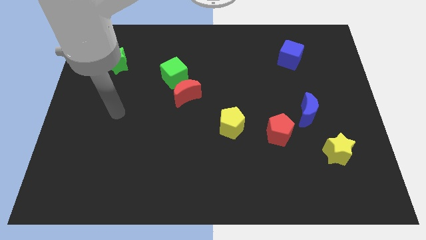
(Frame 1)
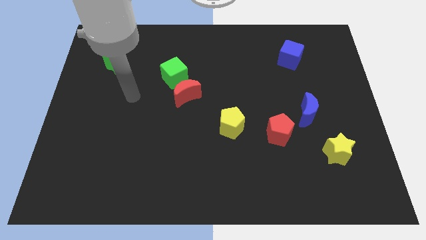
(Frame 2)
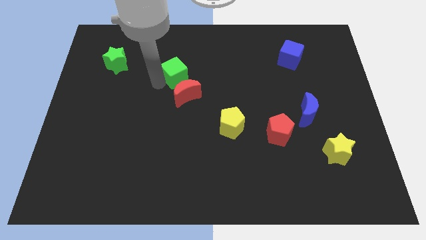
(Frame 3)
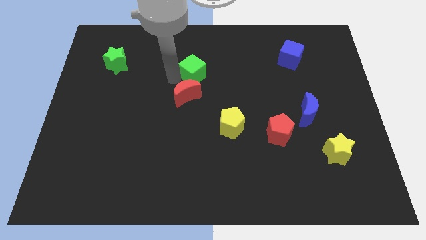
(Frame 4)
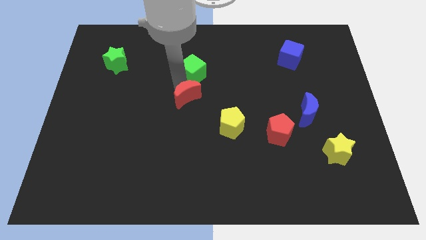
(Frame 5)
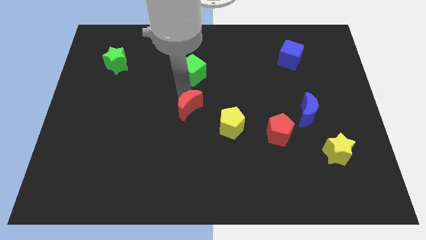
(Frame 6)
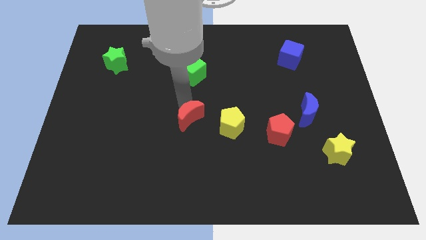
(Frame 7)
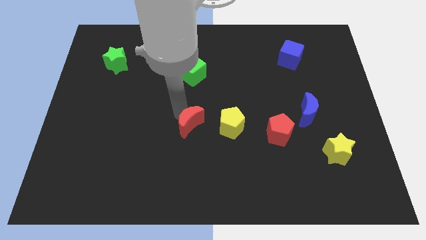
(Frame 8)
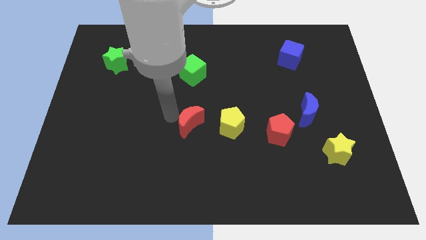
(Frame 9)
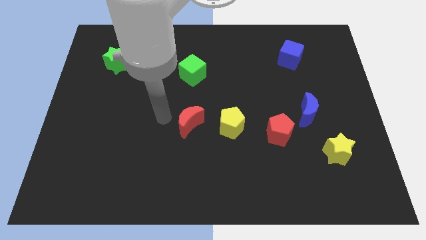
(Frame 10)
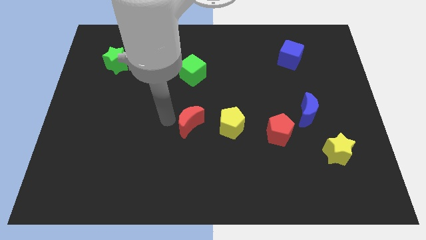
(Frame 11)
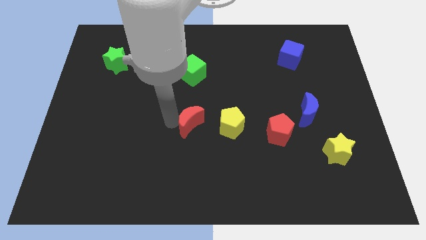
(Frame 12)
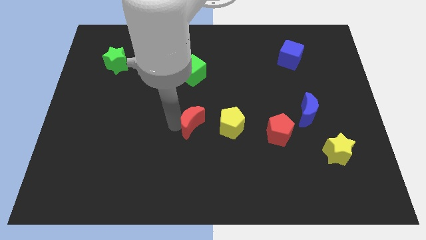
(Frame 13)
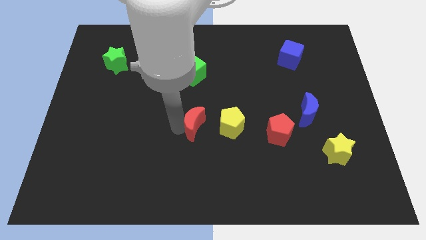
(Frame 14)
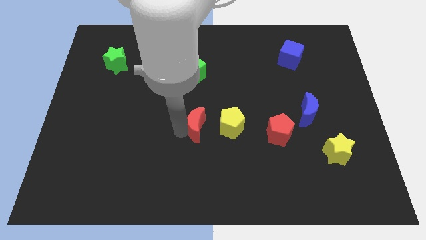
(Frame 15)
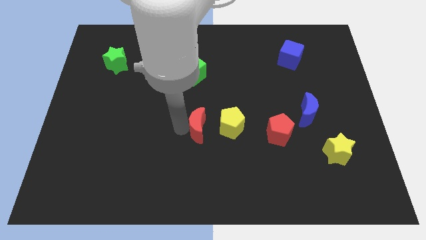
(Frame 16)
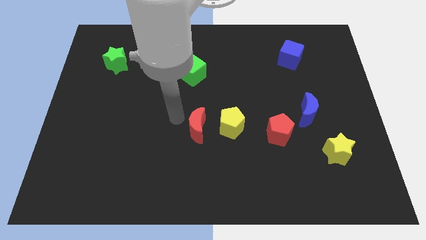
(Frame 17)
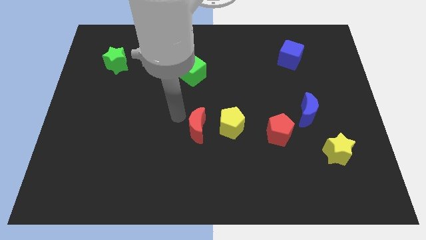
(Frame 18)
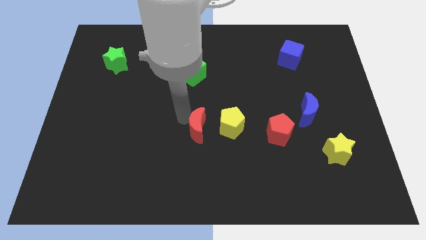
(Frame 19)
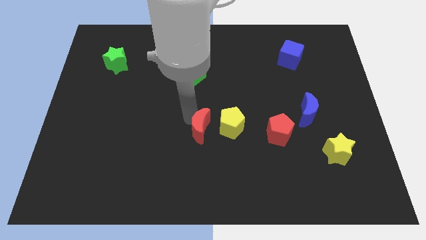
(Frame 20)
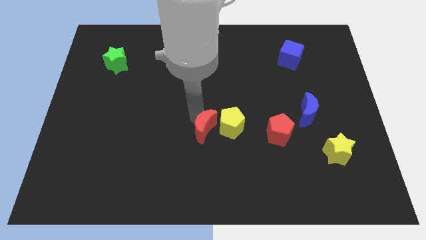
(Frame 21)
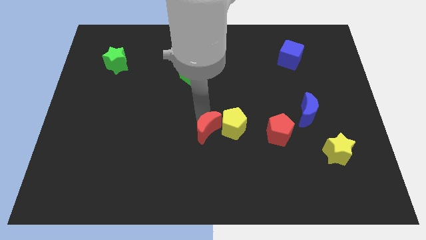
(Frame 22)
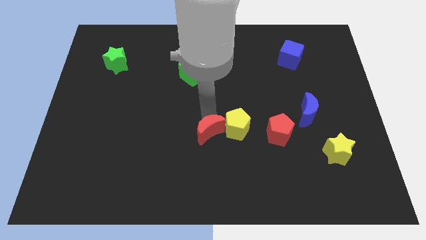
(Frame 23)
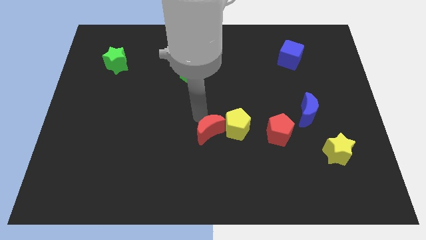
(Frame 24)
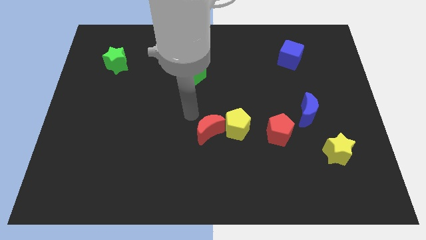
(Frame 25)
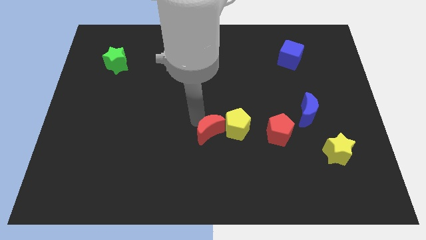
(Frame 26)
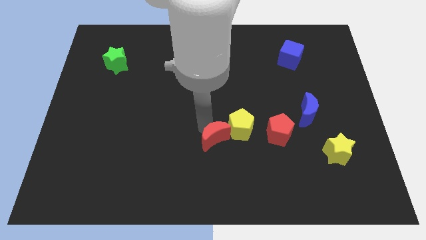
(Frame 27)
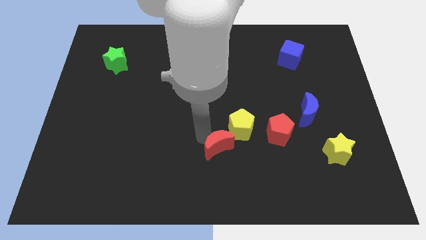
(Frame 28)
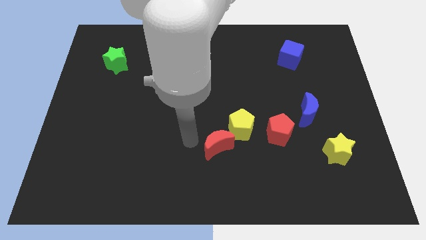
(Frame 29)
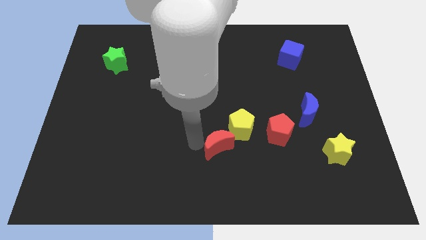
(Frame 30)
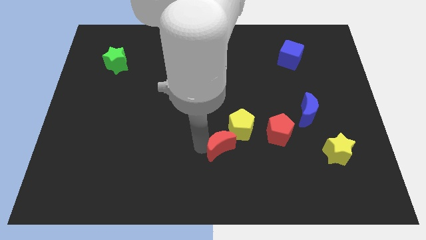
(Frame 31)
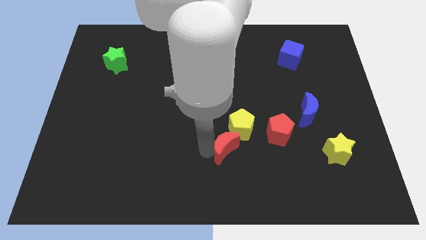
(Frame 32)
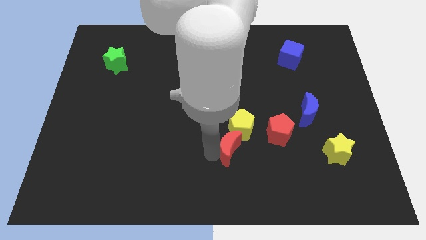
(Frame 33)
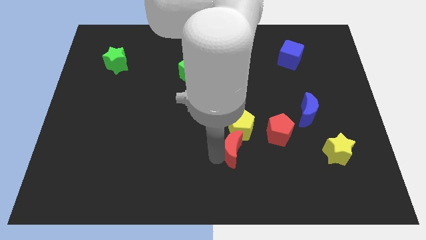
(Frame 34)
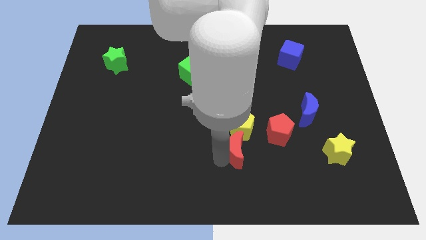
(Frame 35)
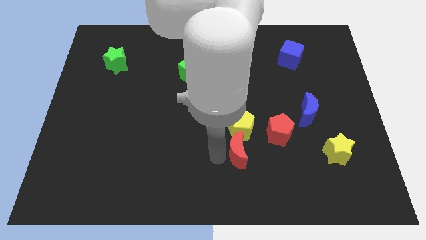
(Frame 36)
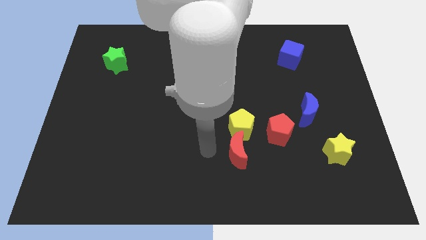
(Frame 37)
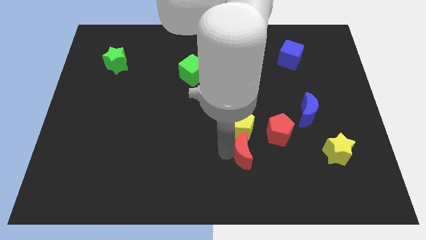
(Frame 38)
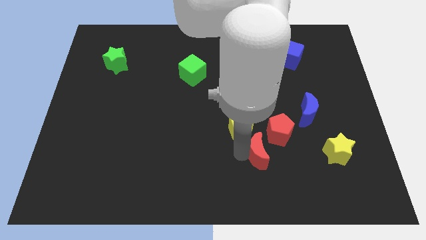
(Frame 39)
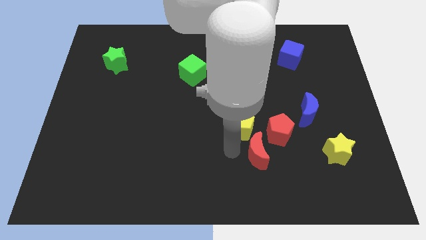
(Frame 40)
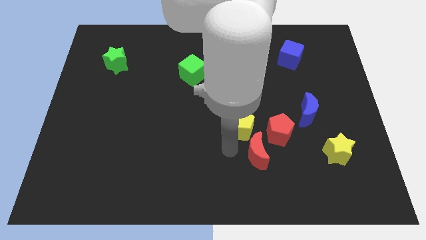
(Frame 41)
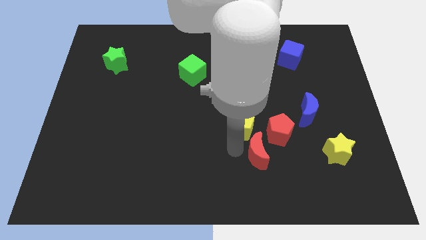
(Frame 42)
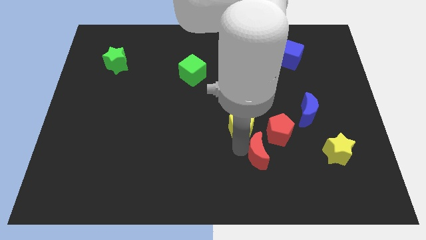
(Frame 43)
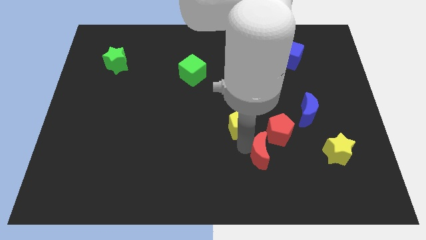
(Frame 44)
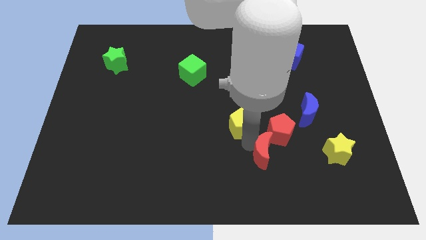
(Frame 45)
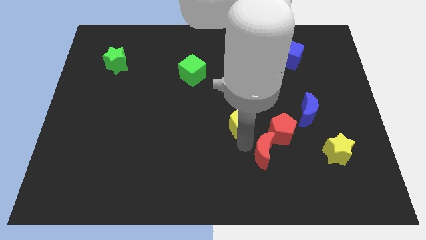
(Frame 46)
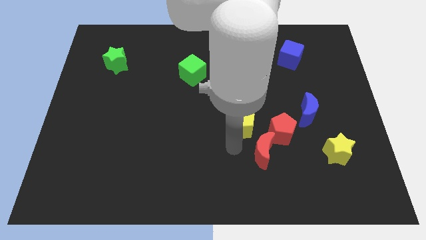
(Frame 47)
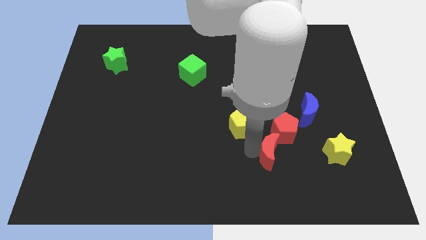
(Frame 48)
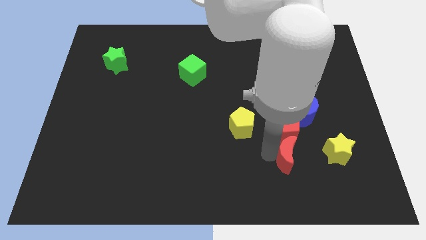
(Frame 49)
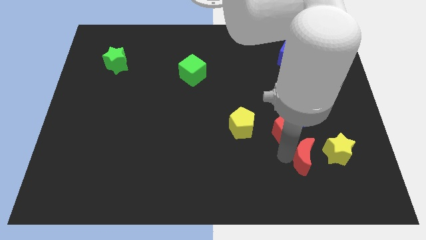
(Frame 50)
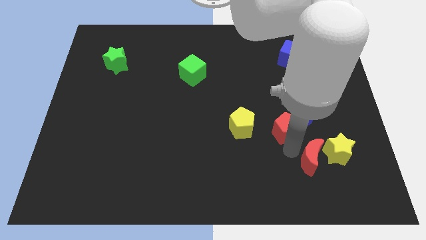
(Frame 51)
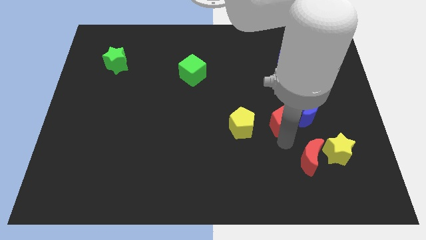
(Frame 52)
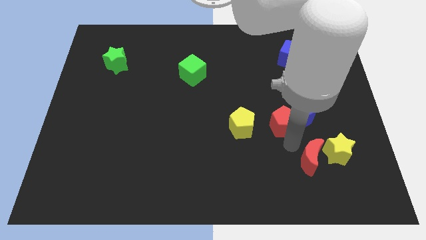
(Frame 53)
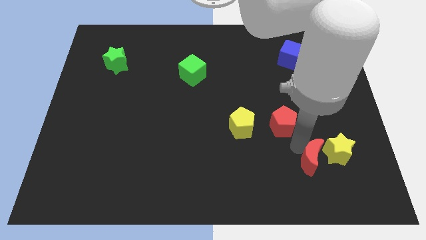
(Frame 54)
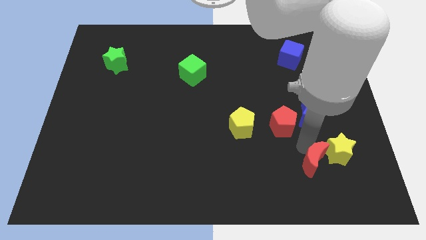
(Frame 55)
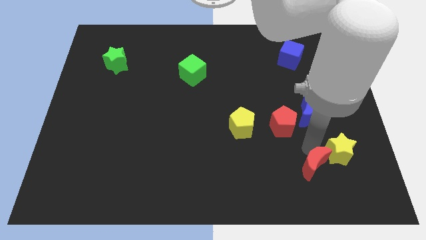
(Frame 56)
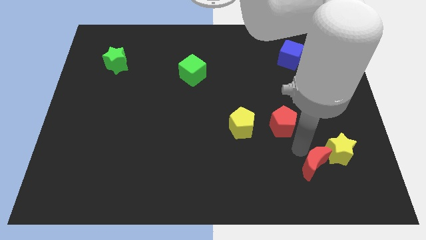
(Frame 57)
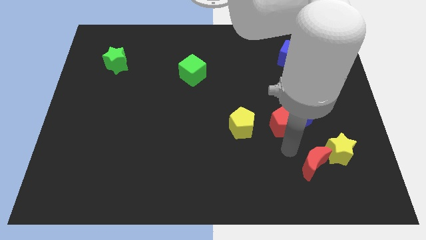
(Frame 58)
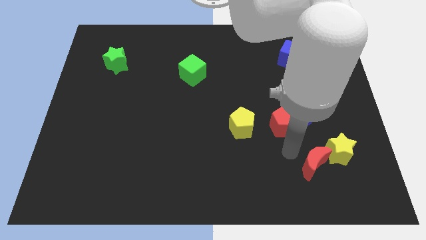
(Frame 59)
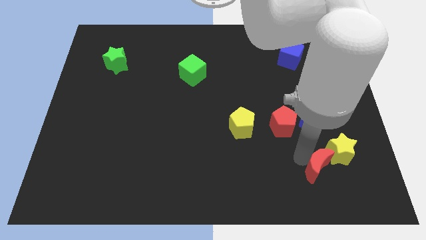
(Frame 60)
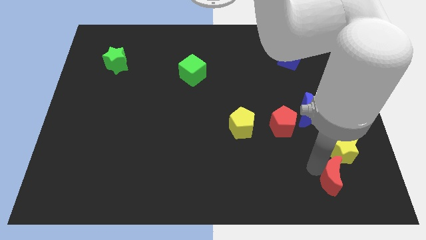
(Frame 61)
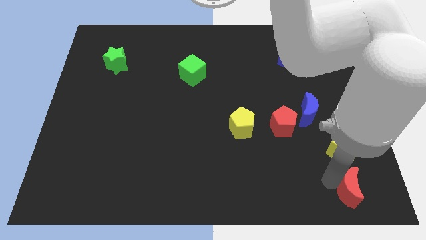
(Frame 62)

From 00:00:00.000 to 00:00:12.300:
move the red moon to the lower right corner
